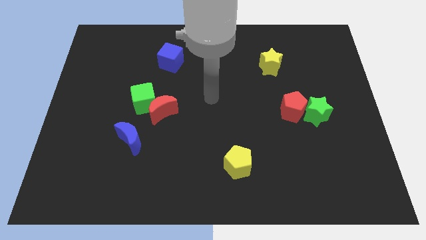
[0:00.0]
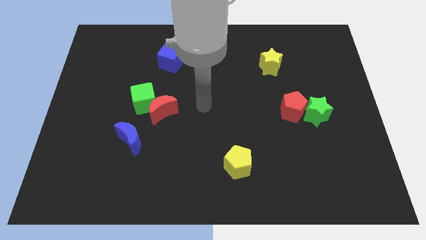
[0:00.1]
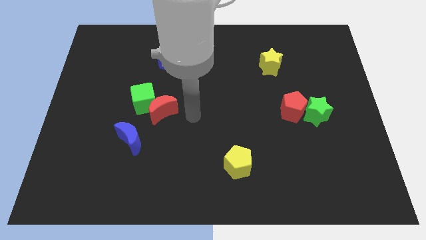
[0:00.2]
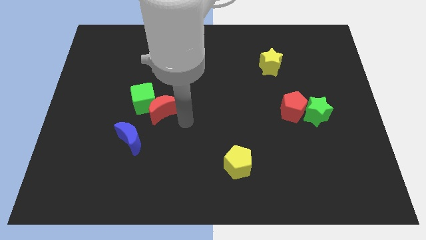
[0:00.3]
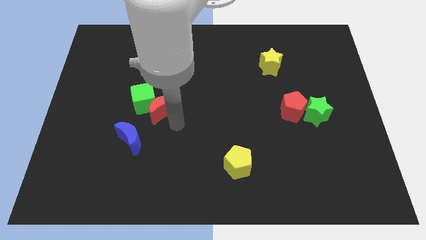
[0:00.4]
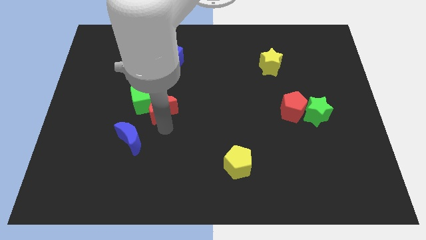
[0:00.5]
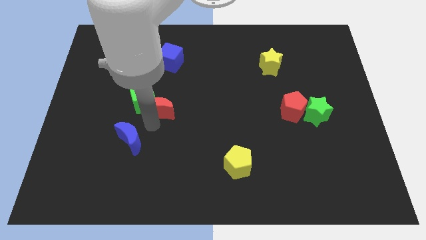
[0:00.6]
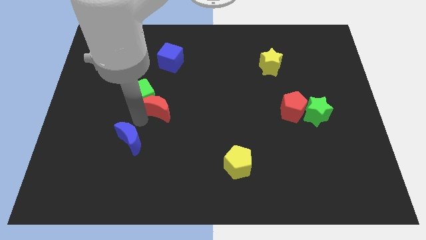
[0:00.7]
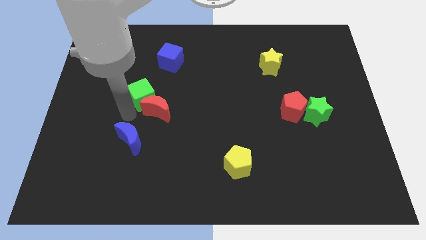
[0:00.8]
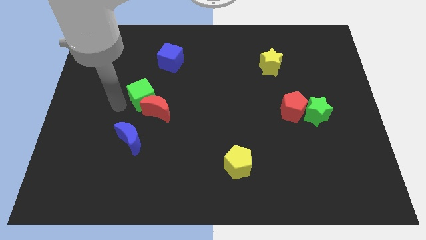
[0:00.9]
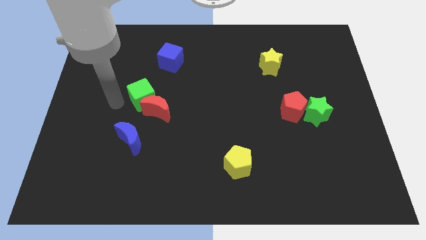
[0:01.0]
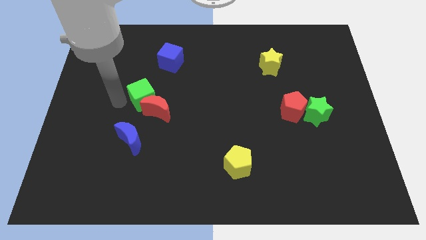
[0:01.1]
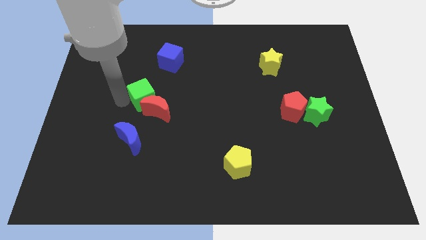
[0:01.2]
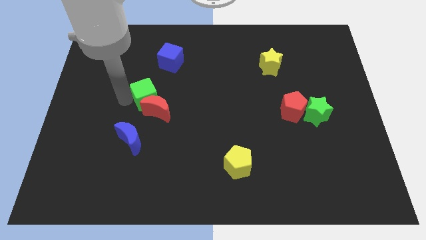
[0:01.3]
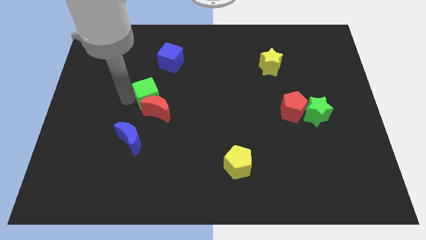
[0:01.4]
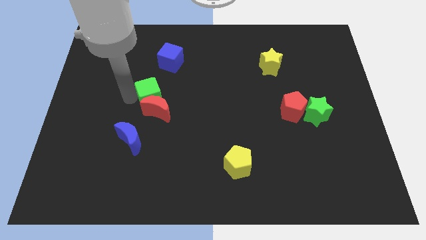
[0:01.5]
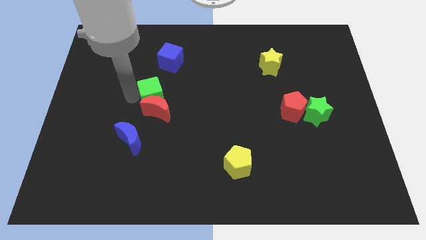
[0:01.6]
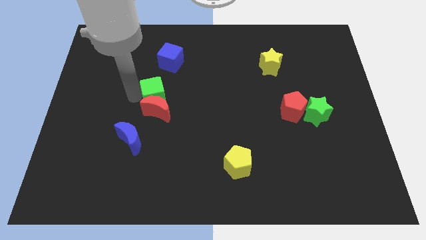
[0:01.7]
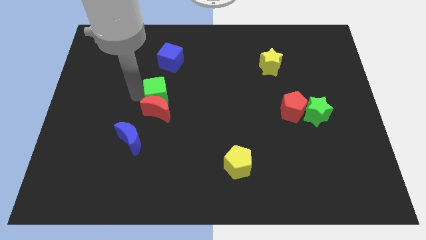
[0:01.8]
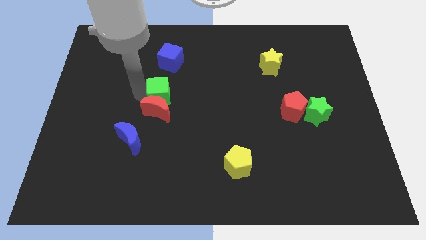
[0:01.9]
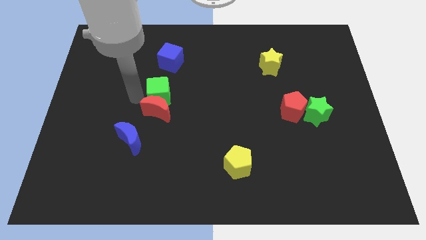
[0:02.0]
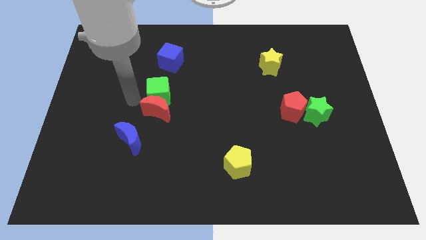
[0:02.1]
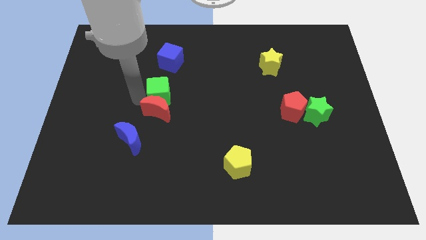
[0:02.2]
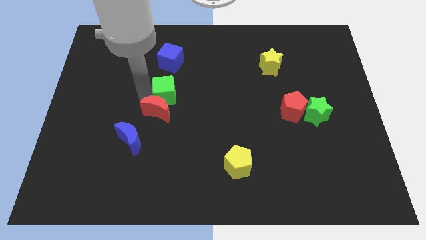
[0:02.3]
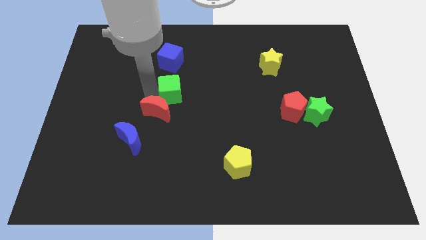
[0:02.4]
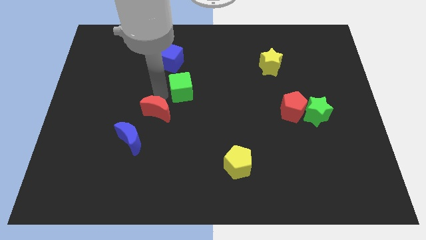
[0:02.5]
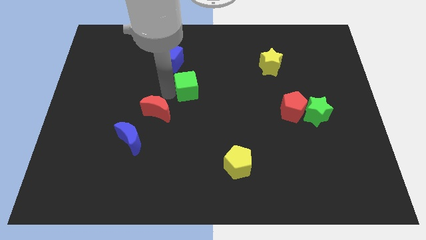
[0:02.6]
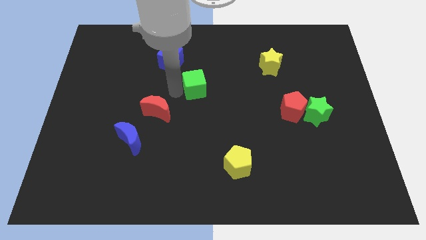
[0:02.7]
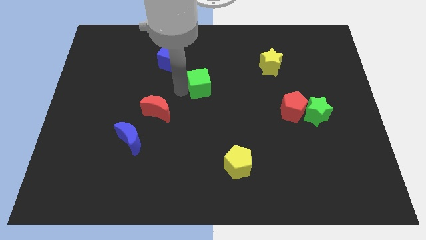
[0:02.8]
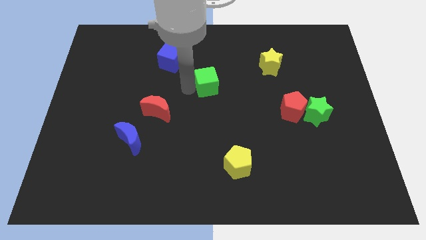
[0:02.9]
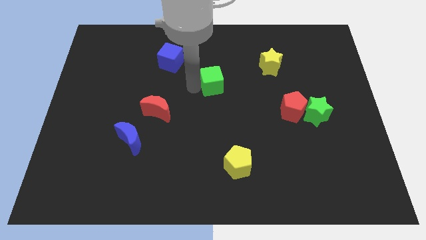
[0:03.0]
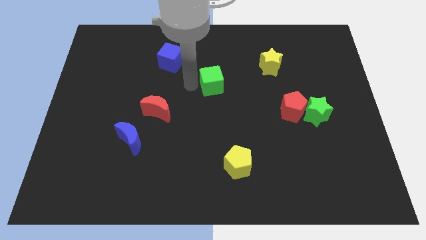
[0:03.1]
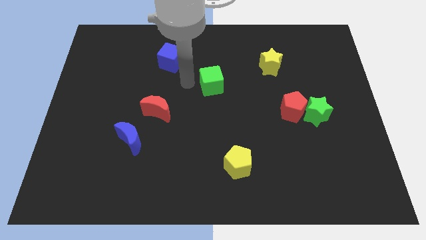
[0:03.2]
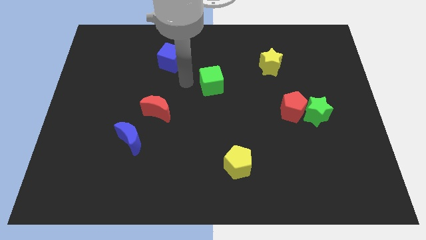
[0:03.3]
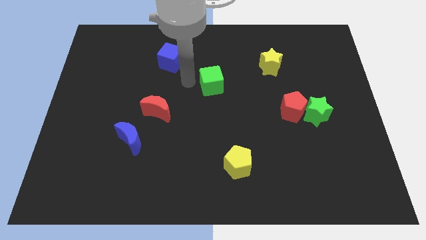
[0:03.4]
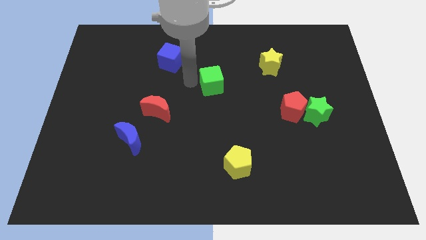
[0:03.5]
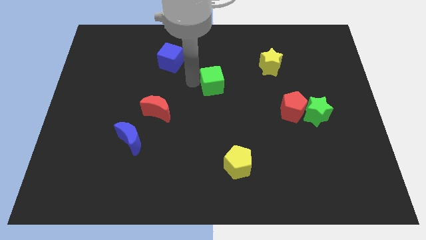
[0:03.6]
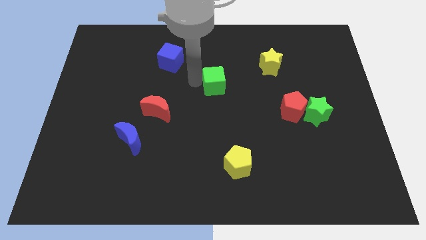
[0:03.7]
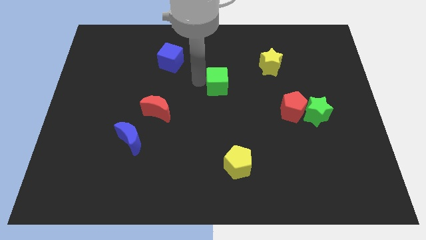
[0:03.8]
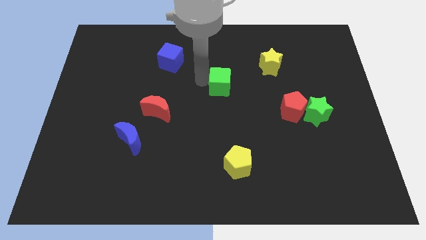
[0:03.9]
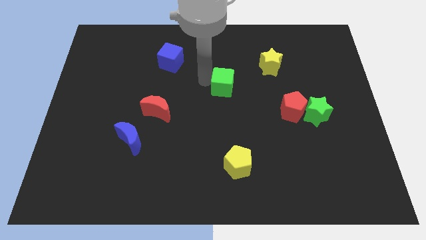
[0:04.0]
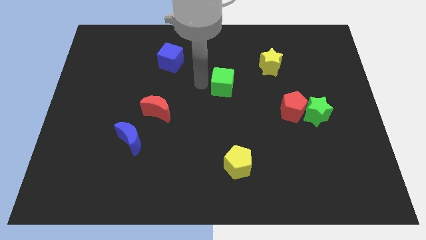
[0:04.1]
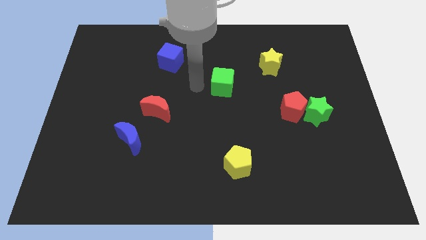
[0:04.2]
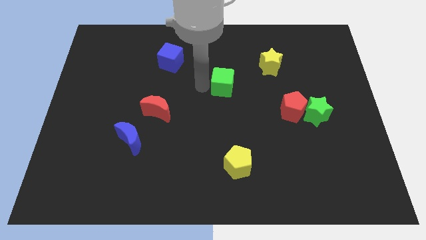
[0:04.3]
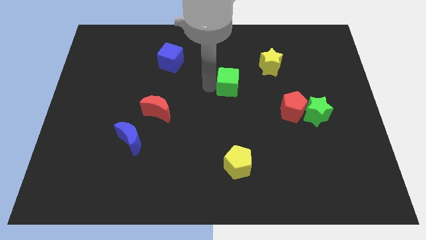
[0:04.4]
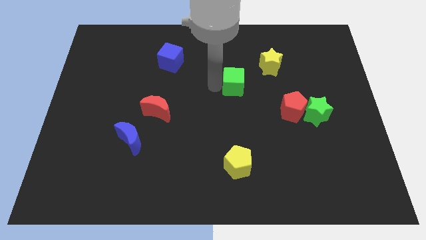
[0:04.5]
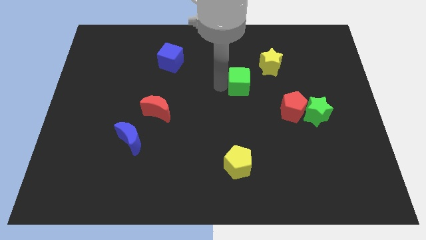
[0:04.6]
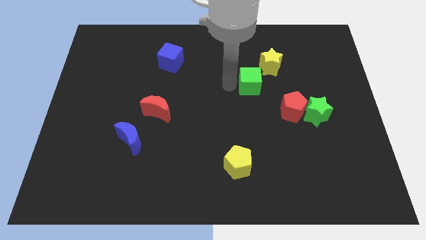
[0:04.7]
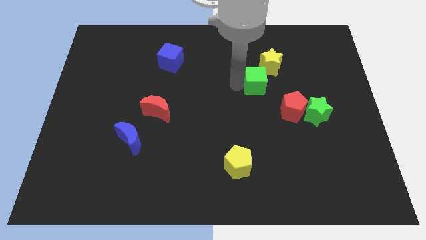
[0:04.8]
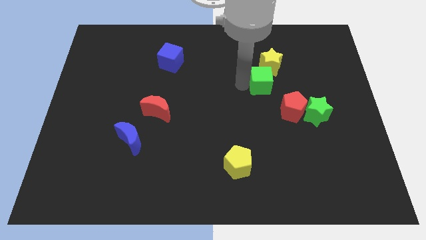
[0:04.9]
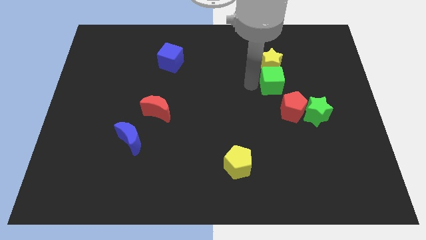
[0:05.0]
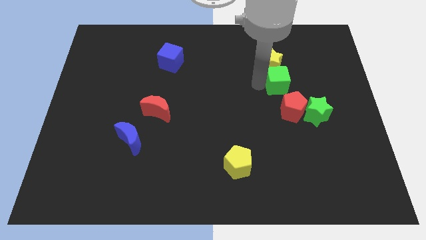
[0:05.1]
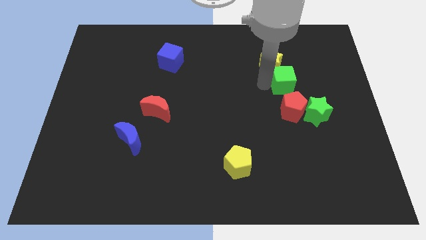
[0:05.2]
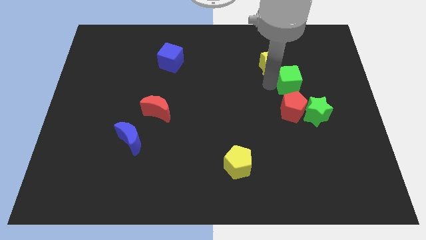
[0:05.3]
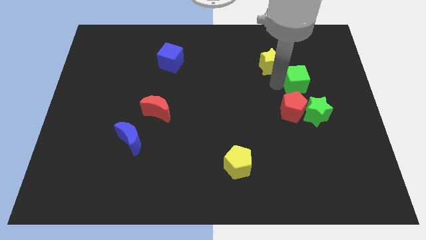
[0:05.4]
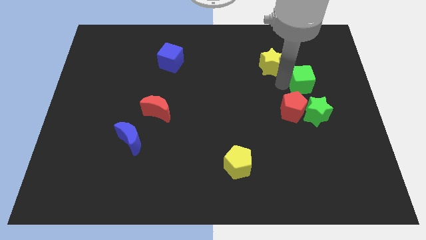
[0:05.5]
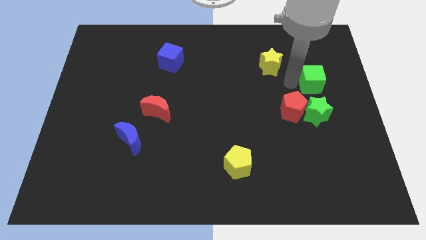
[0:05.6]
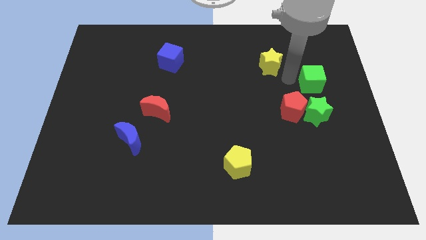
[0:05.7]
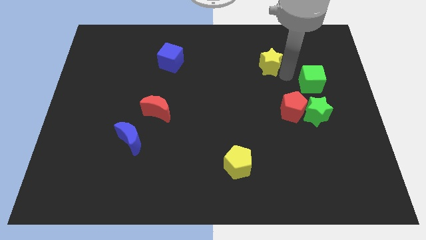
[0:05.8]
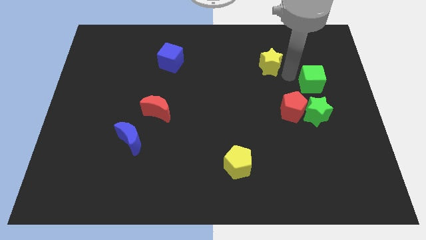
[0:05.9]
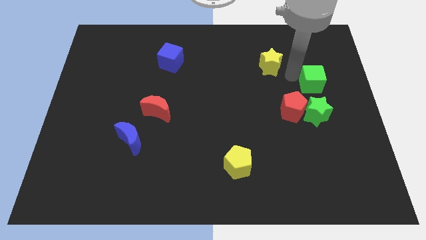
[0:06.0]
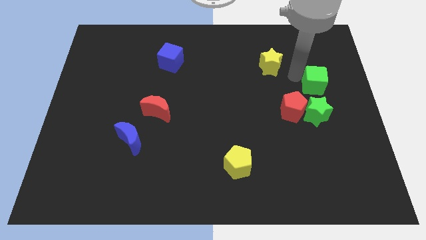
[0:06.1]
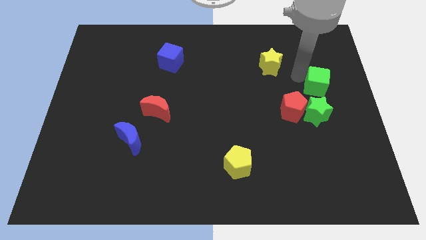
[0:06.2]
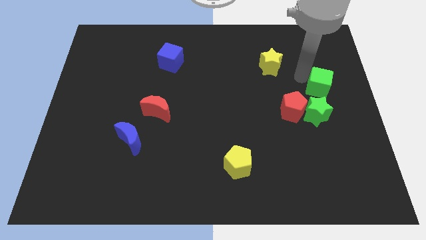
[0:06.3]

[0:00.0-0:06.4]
push the green cube to the center right
